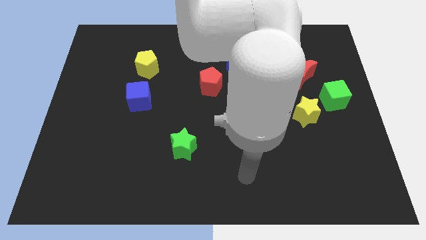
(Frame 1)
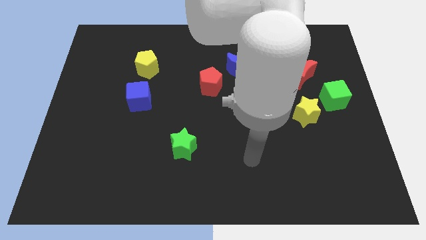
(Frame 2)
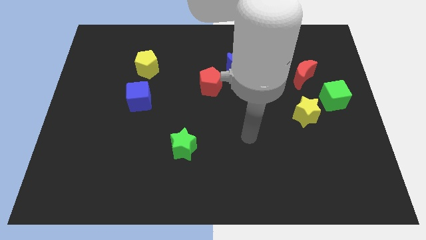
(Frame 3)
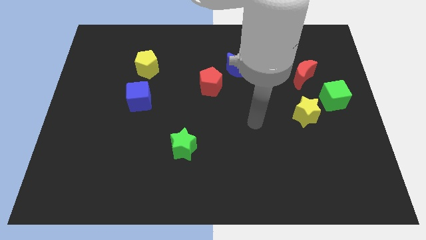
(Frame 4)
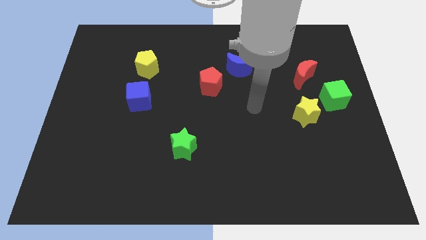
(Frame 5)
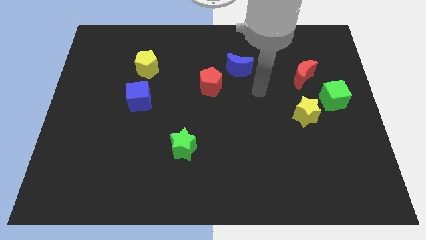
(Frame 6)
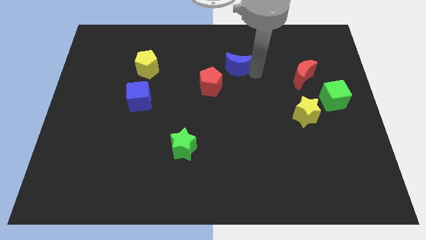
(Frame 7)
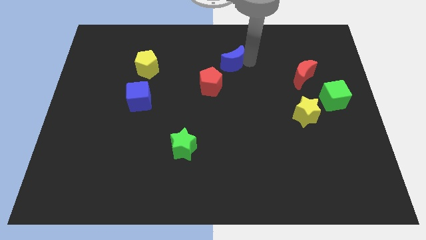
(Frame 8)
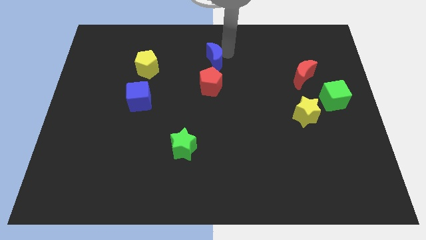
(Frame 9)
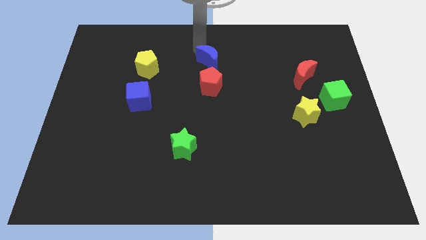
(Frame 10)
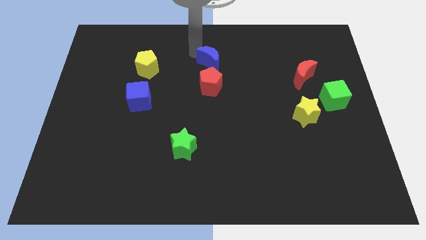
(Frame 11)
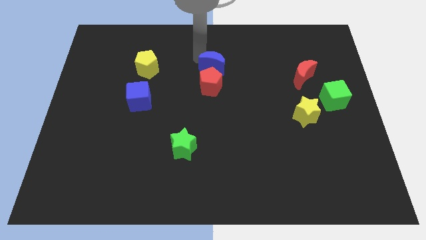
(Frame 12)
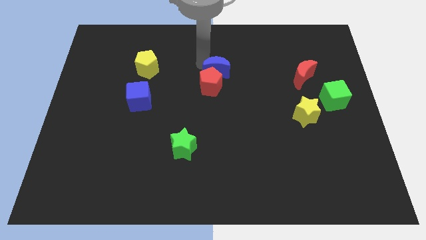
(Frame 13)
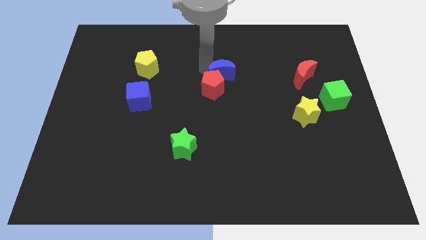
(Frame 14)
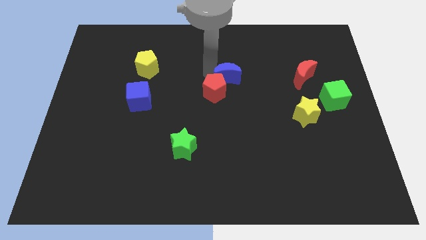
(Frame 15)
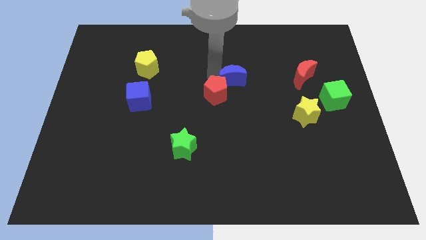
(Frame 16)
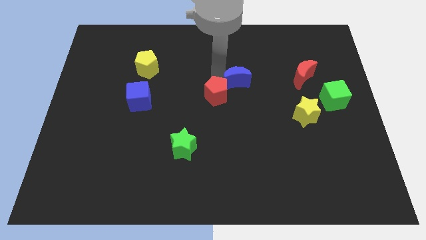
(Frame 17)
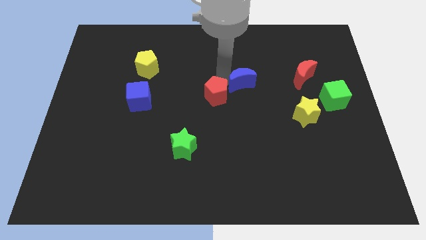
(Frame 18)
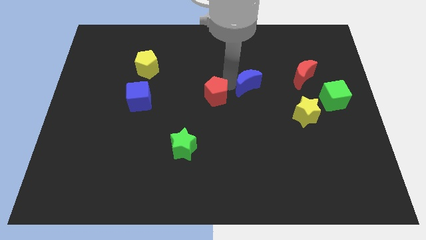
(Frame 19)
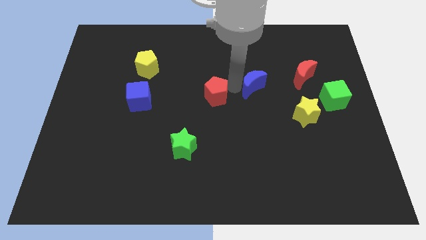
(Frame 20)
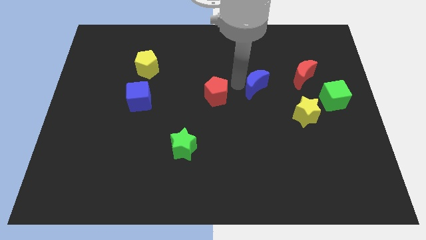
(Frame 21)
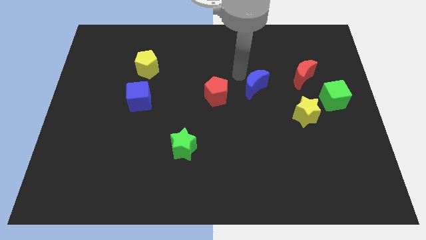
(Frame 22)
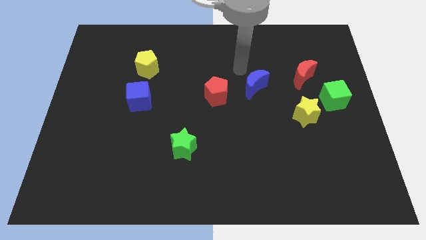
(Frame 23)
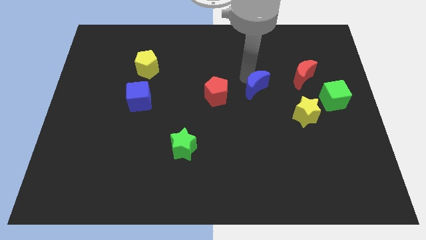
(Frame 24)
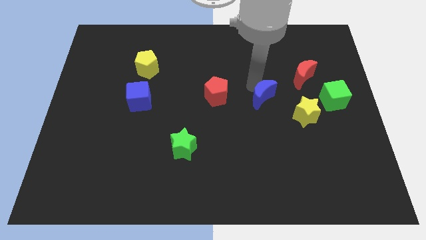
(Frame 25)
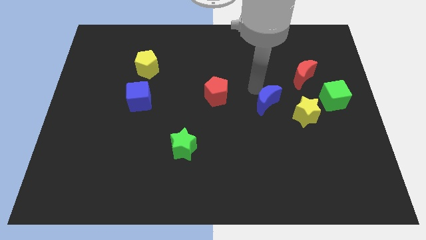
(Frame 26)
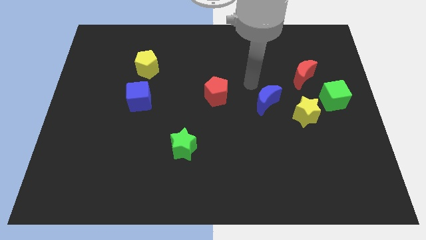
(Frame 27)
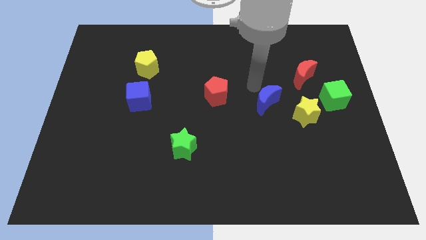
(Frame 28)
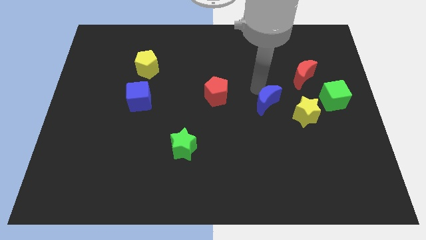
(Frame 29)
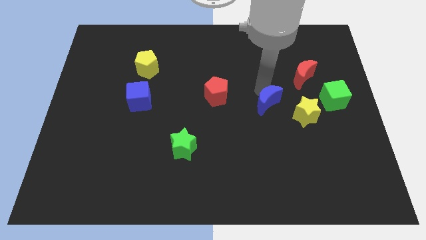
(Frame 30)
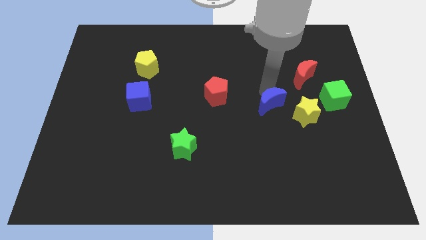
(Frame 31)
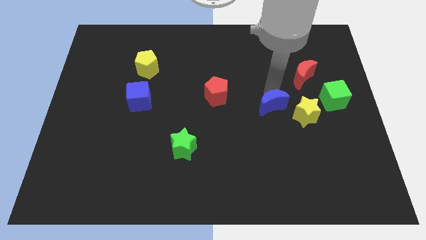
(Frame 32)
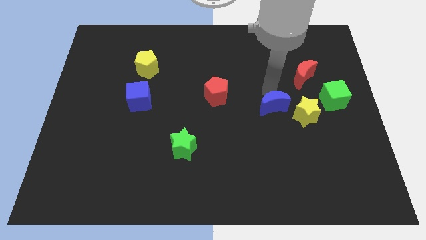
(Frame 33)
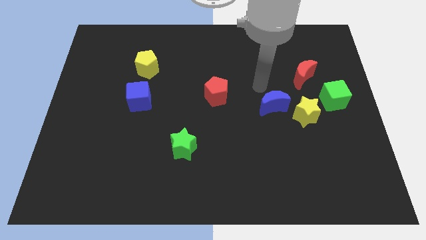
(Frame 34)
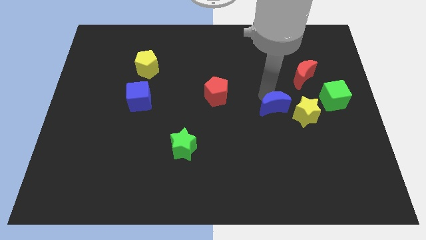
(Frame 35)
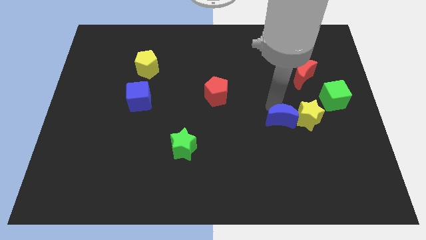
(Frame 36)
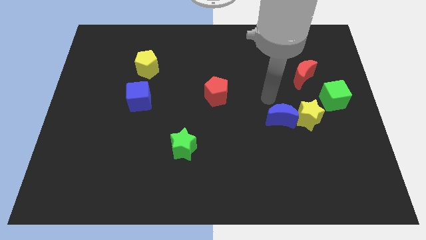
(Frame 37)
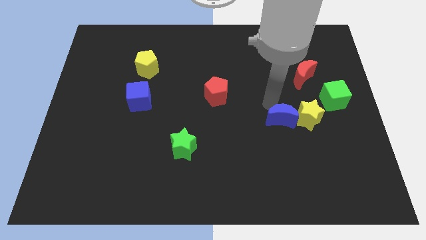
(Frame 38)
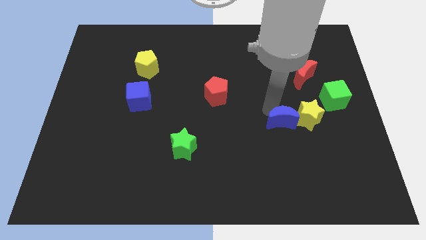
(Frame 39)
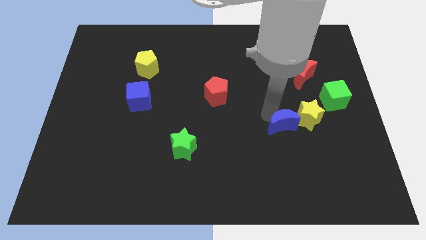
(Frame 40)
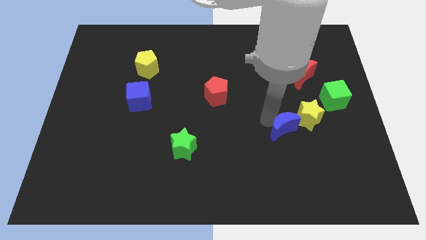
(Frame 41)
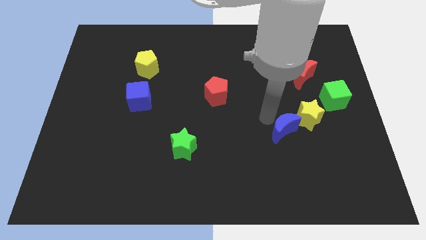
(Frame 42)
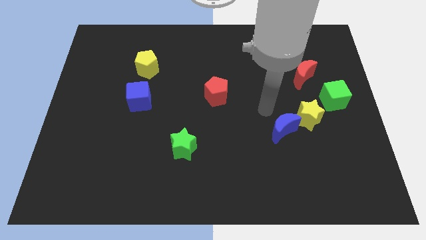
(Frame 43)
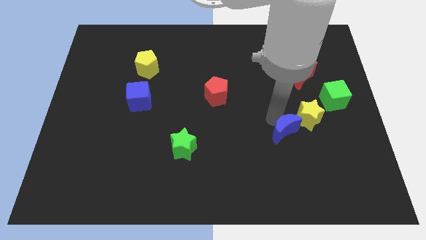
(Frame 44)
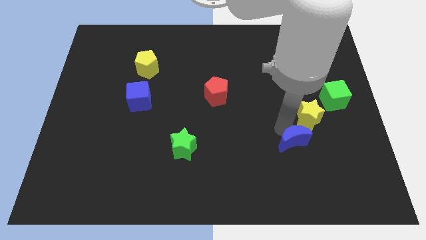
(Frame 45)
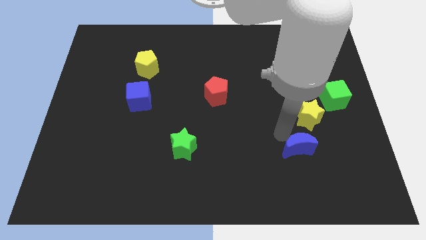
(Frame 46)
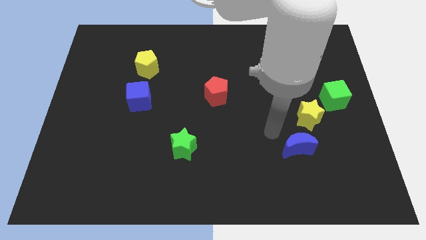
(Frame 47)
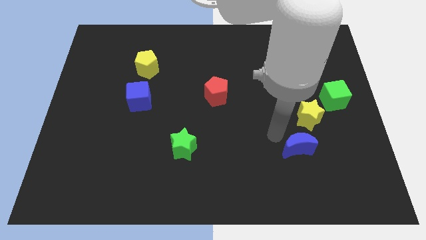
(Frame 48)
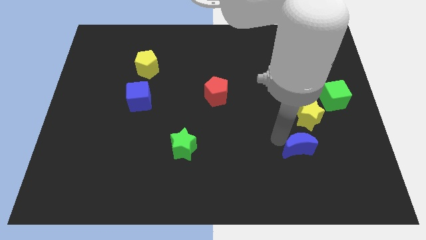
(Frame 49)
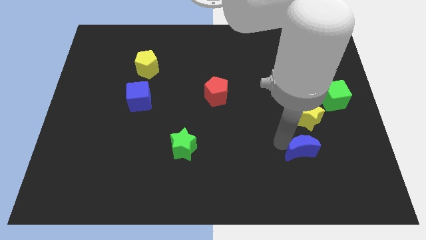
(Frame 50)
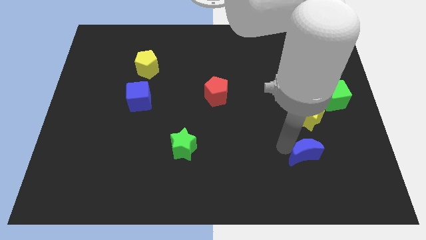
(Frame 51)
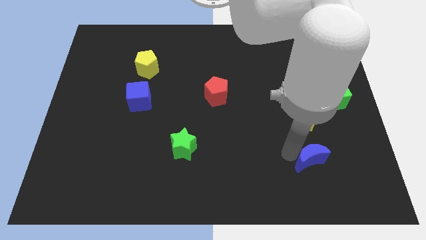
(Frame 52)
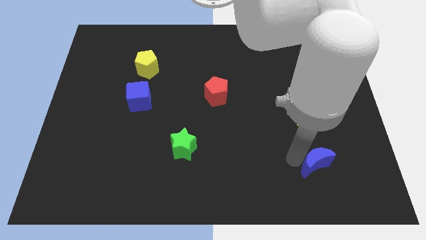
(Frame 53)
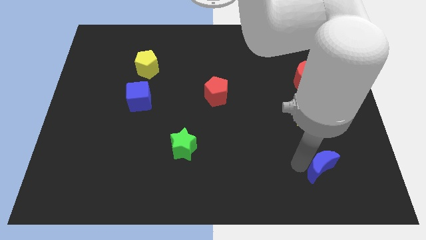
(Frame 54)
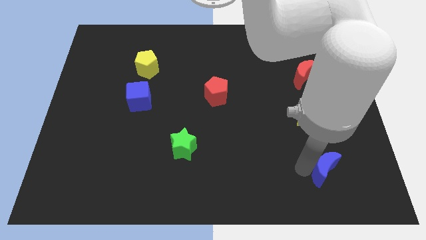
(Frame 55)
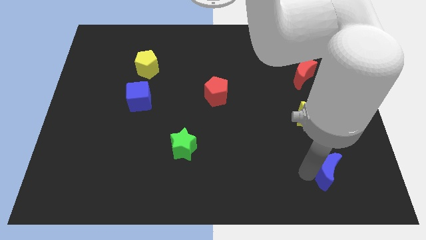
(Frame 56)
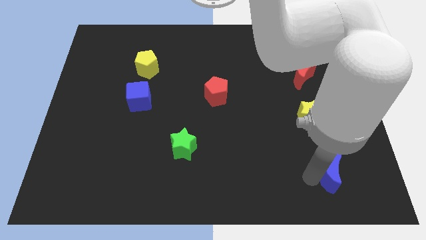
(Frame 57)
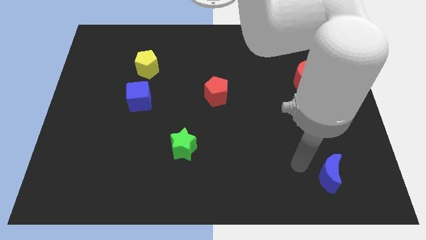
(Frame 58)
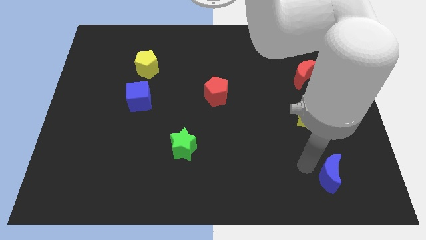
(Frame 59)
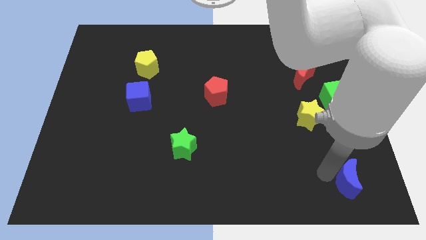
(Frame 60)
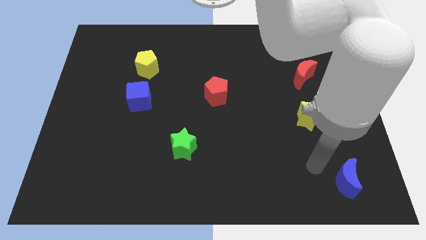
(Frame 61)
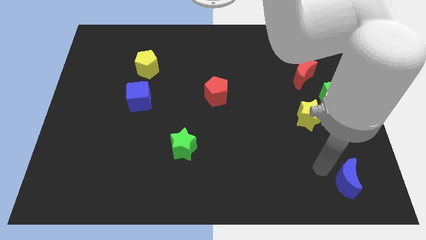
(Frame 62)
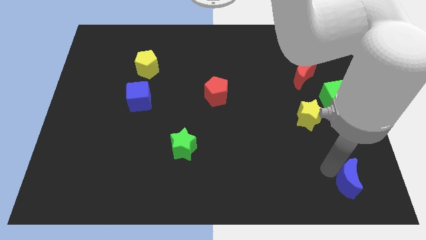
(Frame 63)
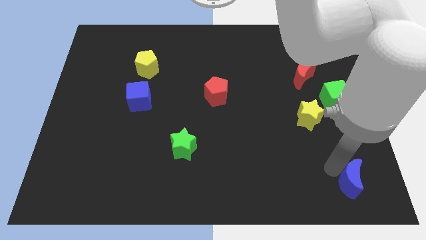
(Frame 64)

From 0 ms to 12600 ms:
put the blue moon to the lower right corner

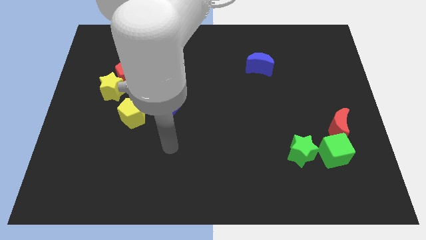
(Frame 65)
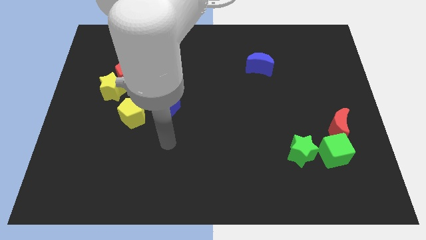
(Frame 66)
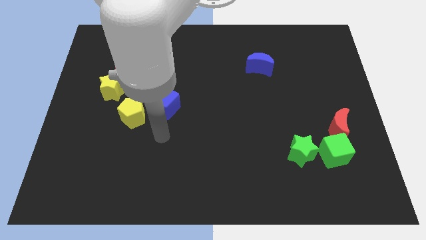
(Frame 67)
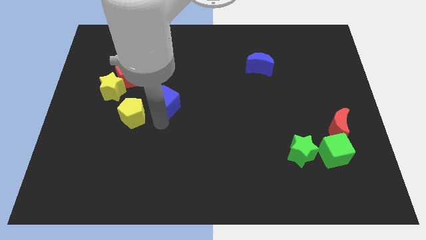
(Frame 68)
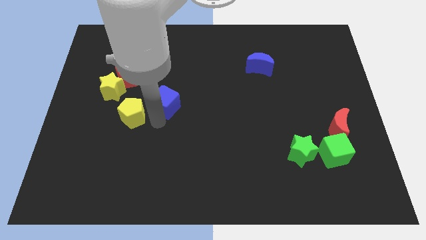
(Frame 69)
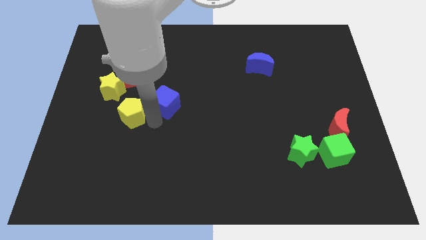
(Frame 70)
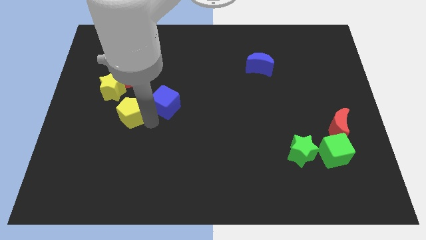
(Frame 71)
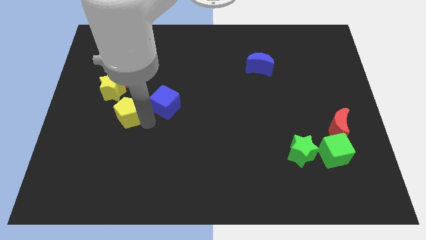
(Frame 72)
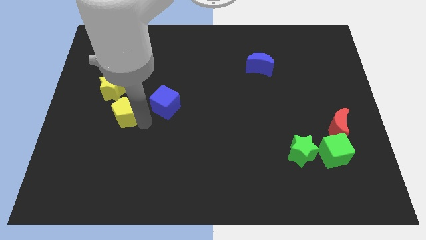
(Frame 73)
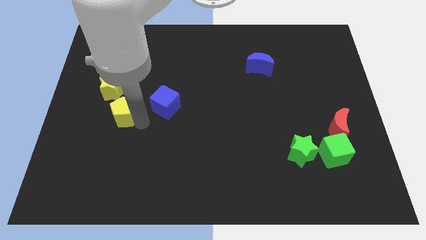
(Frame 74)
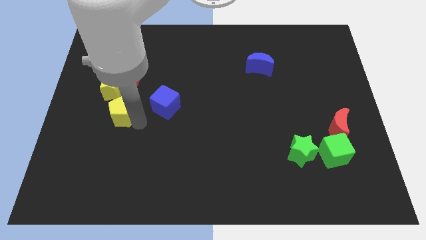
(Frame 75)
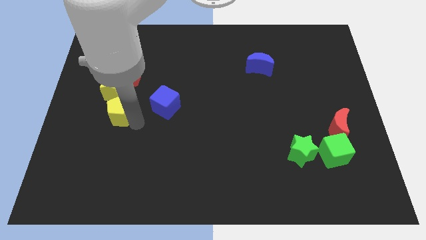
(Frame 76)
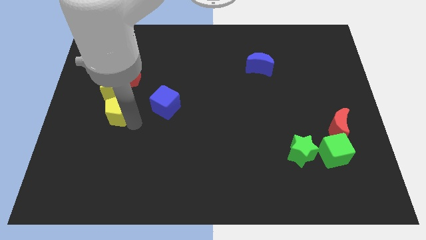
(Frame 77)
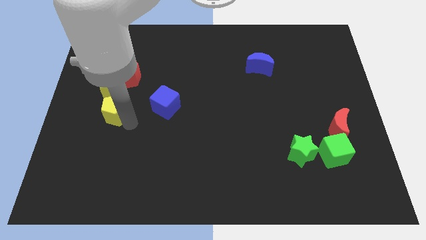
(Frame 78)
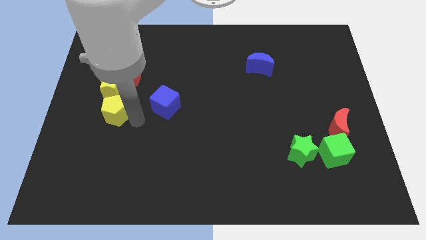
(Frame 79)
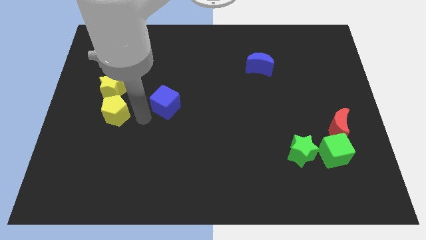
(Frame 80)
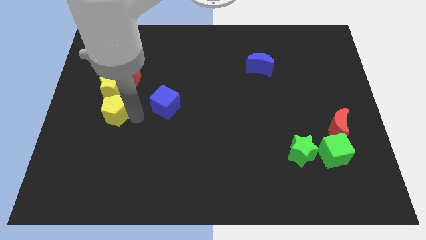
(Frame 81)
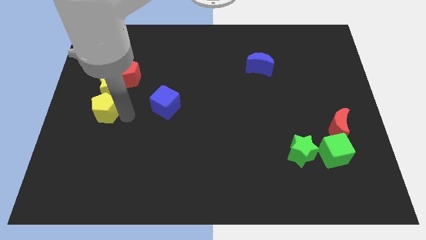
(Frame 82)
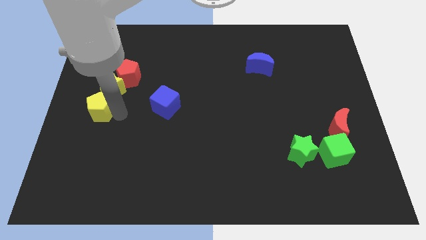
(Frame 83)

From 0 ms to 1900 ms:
put the yellow pentagon to the left side of the board
